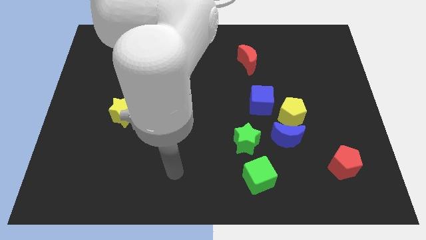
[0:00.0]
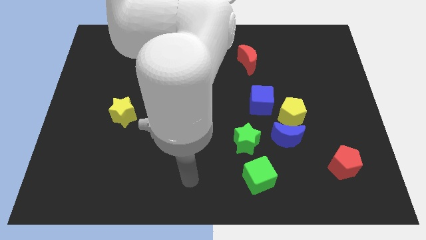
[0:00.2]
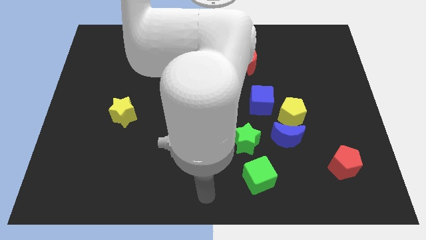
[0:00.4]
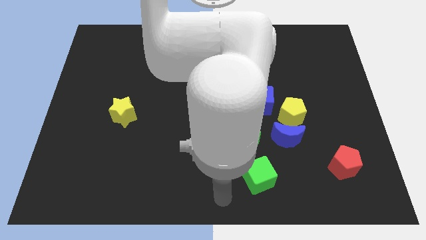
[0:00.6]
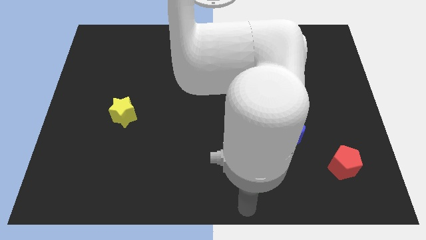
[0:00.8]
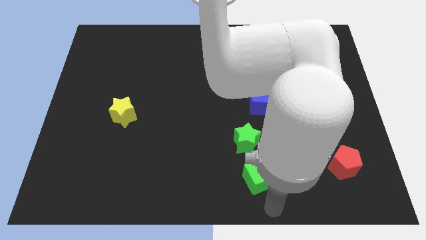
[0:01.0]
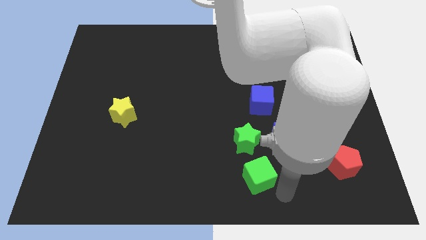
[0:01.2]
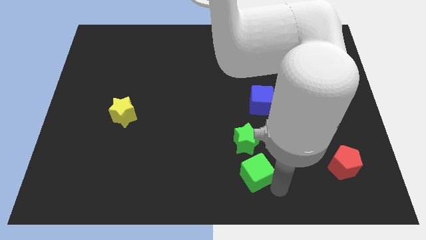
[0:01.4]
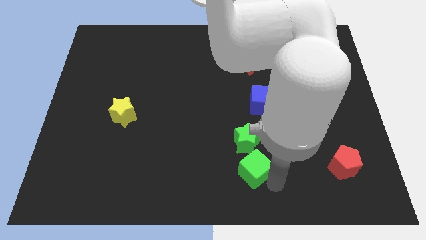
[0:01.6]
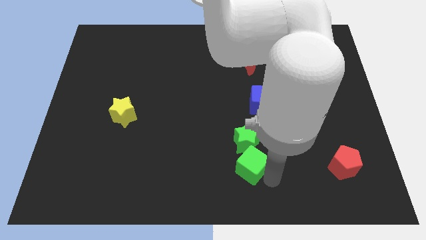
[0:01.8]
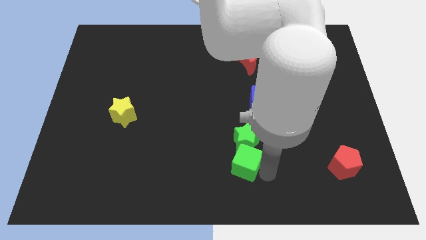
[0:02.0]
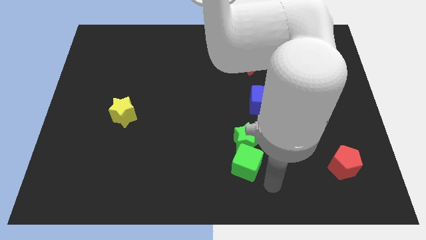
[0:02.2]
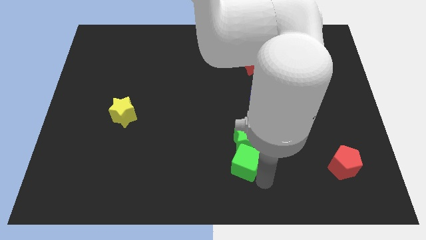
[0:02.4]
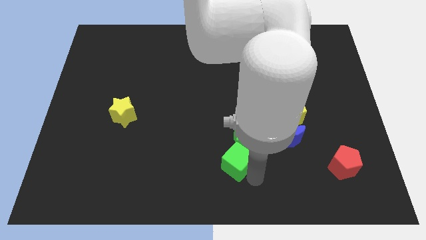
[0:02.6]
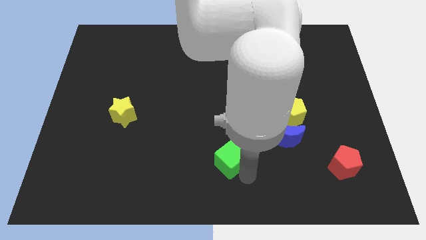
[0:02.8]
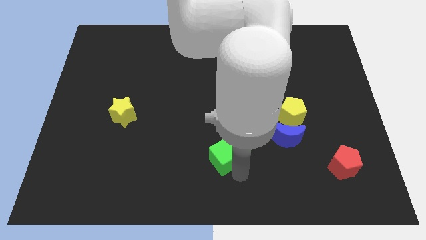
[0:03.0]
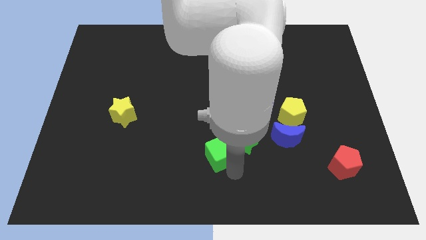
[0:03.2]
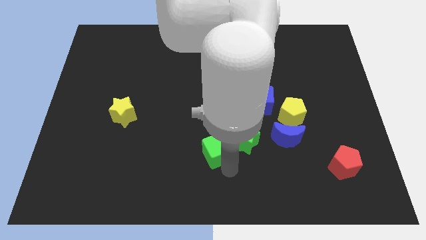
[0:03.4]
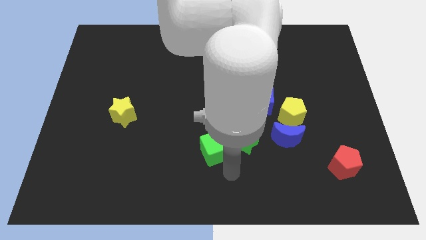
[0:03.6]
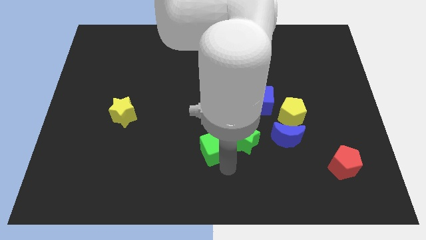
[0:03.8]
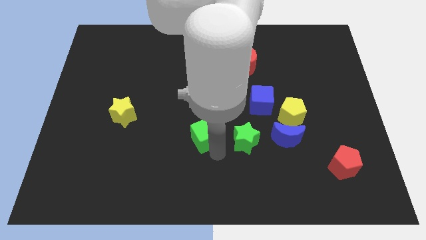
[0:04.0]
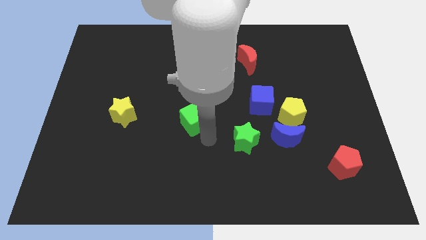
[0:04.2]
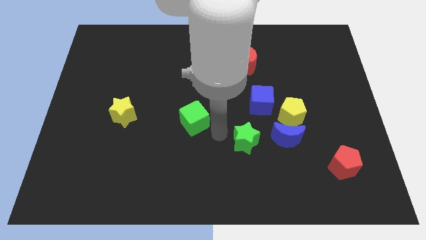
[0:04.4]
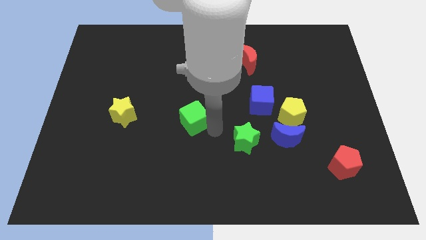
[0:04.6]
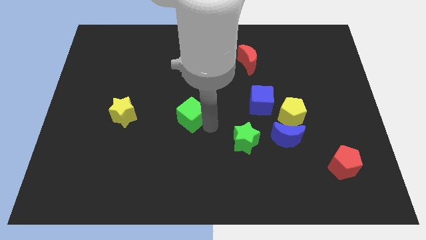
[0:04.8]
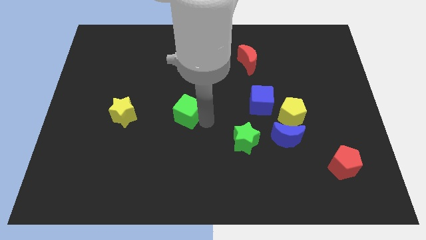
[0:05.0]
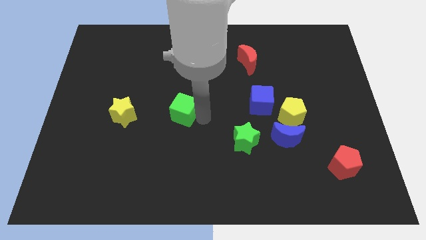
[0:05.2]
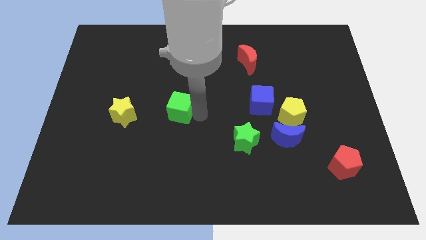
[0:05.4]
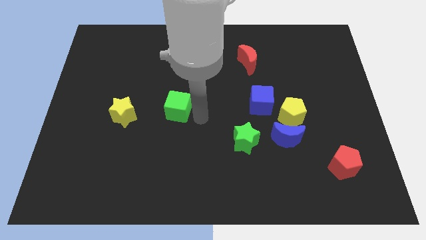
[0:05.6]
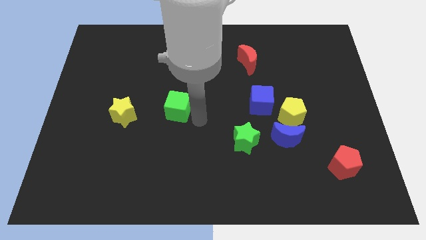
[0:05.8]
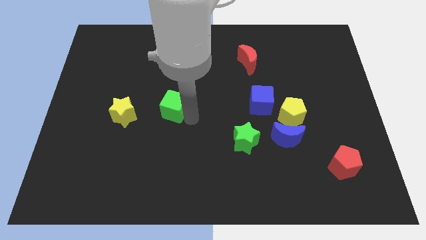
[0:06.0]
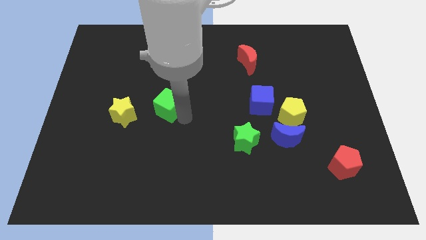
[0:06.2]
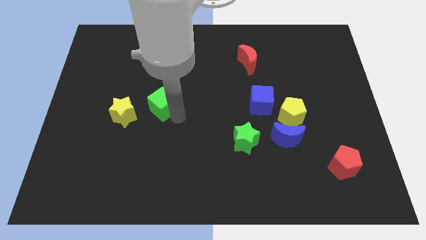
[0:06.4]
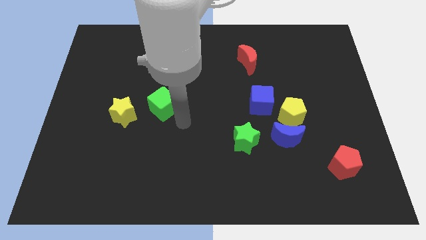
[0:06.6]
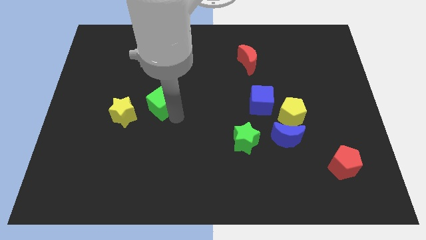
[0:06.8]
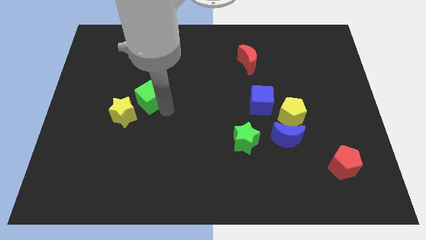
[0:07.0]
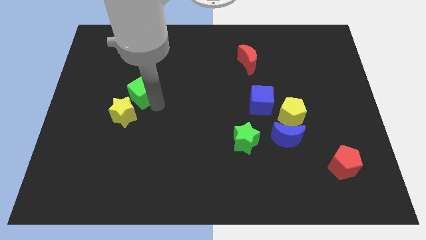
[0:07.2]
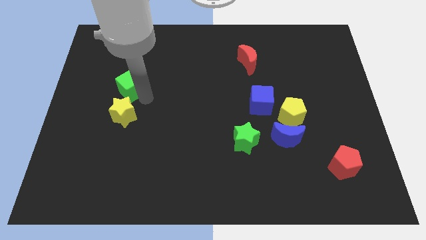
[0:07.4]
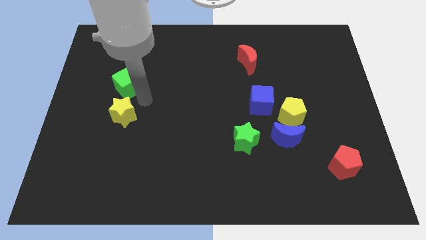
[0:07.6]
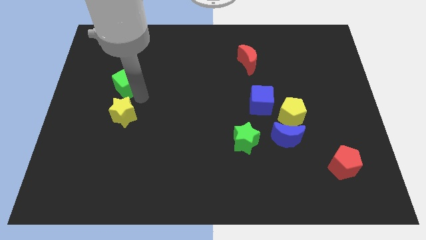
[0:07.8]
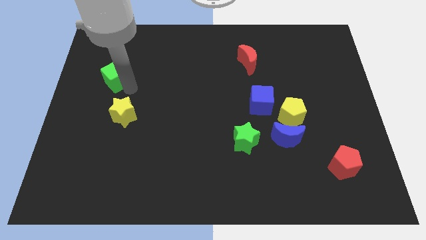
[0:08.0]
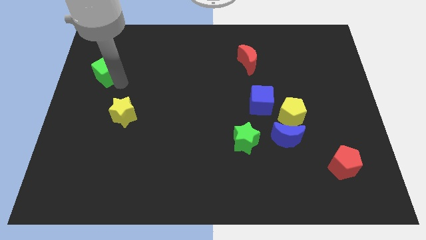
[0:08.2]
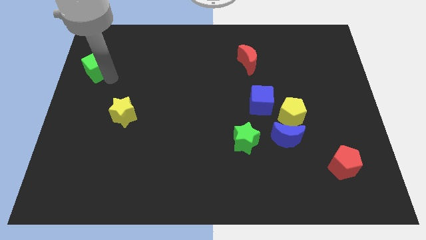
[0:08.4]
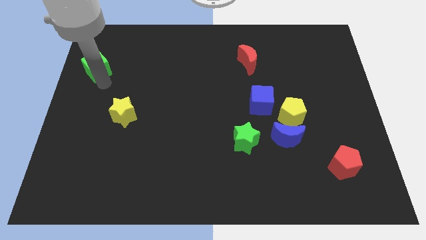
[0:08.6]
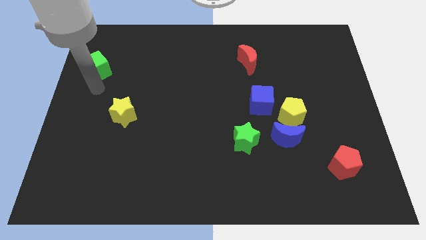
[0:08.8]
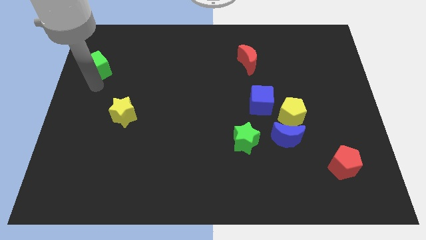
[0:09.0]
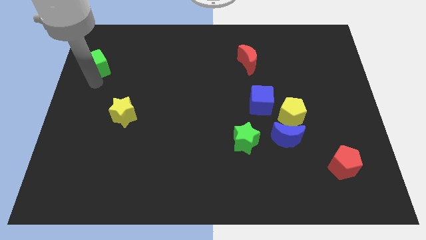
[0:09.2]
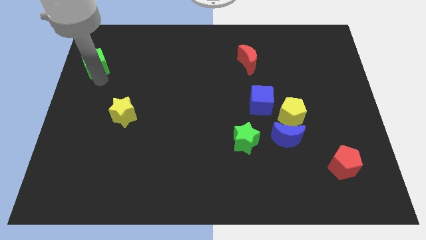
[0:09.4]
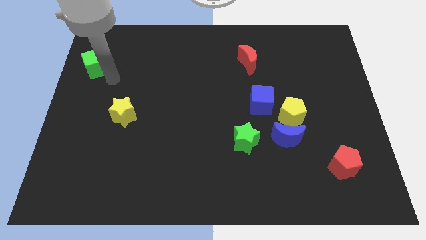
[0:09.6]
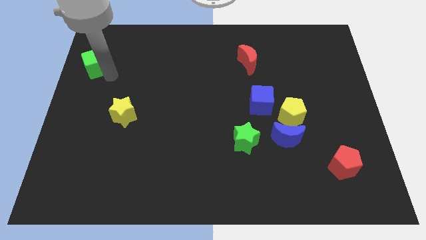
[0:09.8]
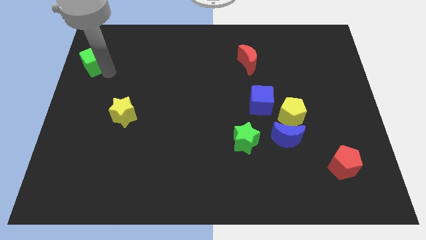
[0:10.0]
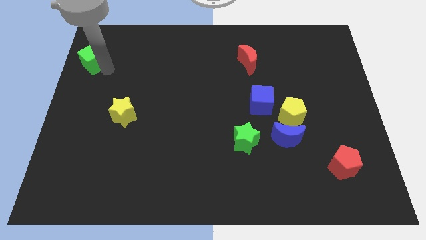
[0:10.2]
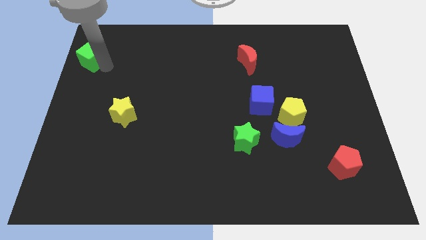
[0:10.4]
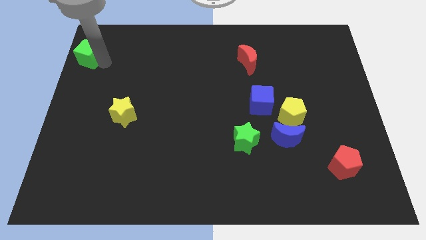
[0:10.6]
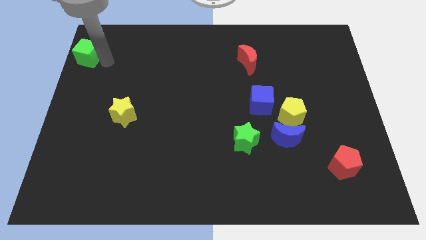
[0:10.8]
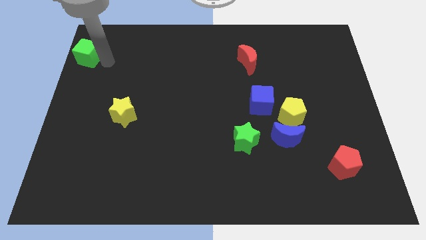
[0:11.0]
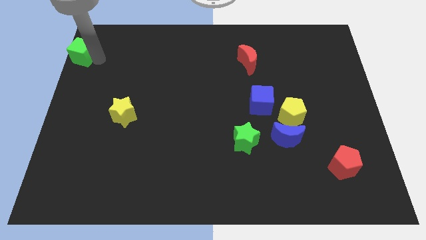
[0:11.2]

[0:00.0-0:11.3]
push the green cube to the top left of the board

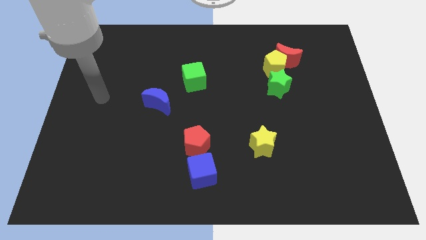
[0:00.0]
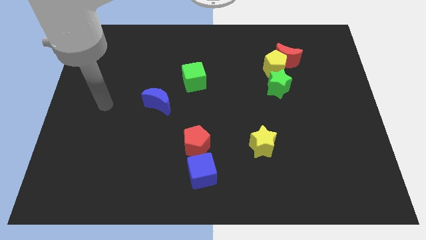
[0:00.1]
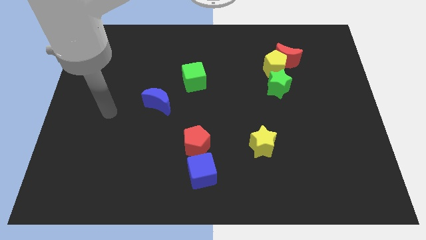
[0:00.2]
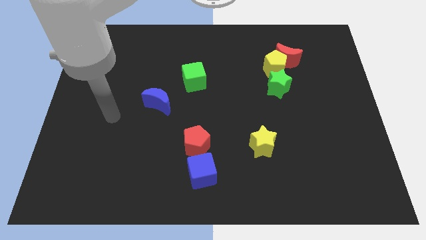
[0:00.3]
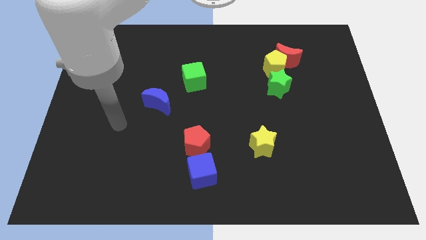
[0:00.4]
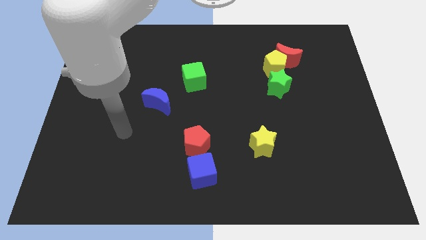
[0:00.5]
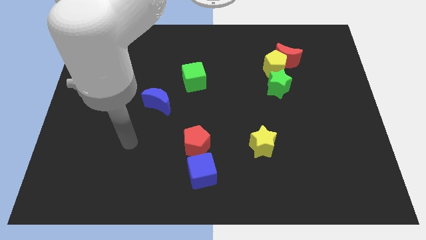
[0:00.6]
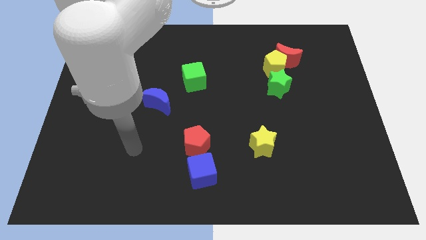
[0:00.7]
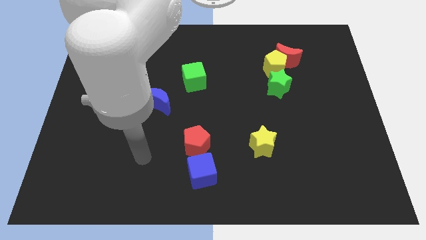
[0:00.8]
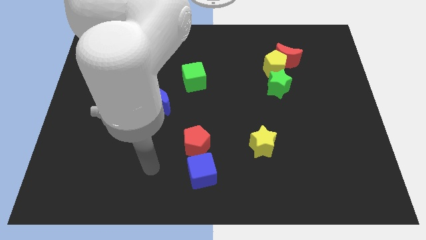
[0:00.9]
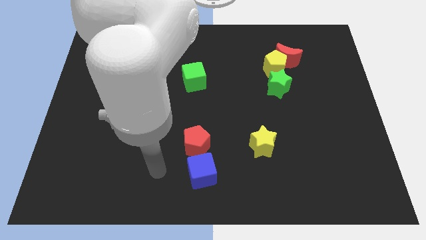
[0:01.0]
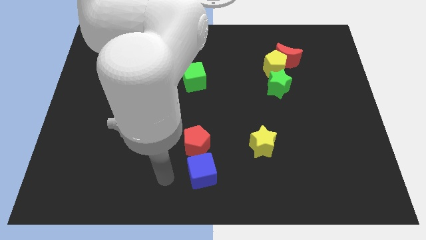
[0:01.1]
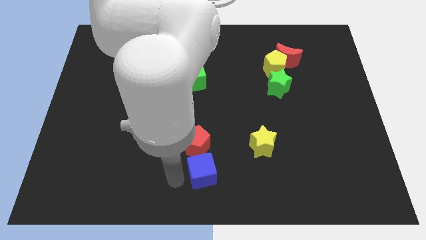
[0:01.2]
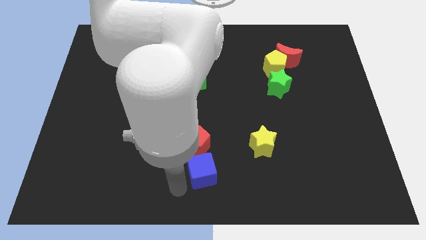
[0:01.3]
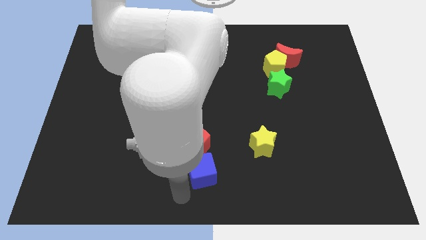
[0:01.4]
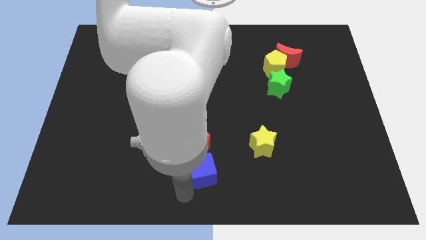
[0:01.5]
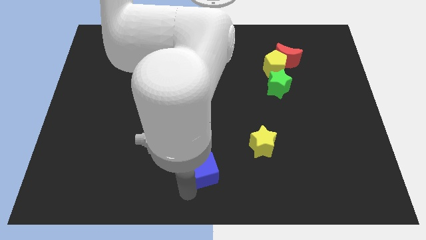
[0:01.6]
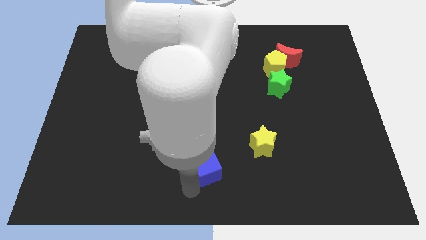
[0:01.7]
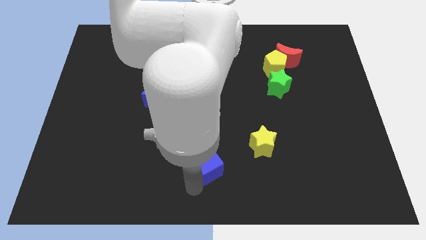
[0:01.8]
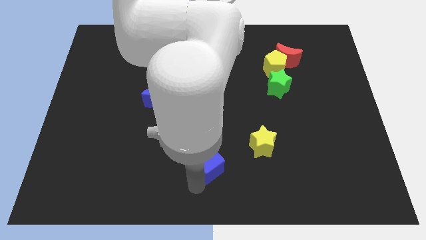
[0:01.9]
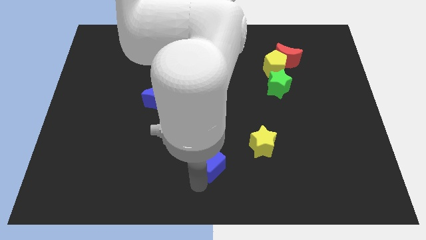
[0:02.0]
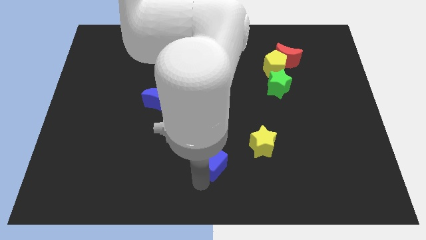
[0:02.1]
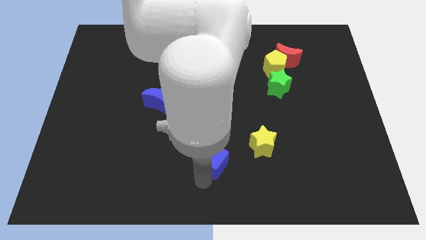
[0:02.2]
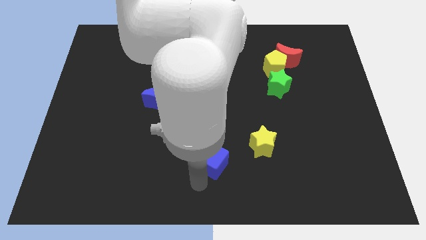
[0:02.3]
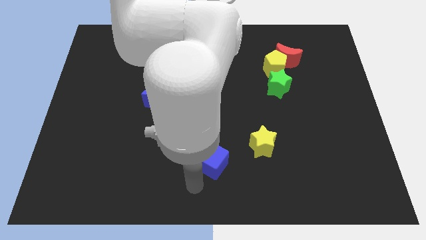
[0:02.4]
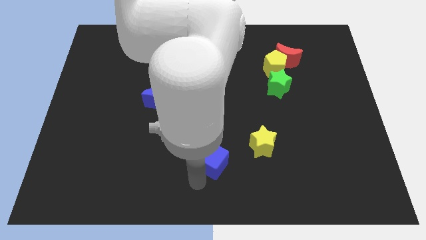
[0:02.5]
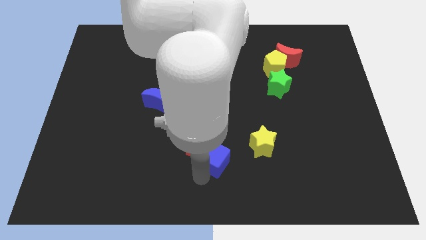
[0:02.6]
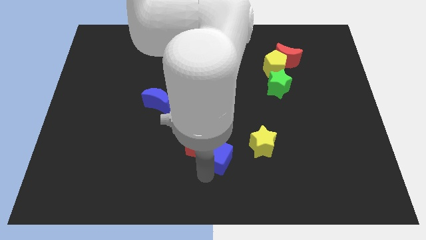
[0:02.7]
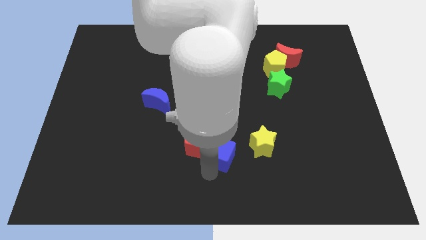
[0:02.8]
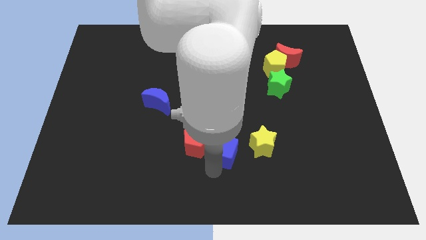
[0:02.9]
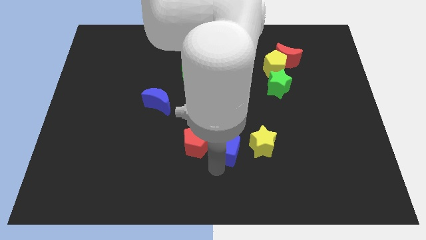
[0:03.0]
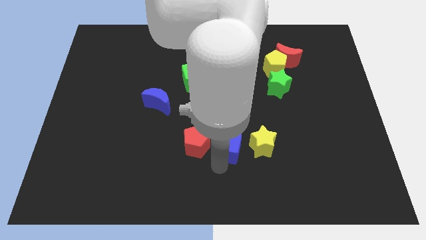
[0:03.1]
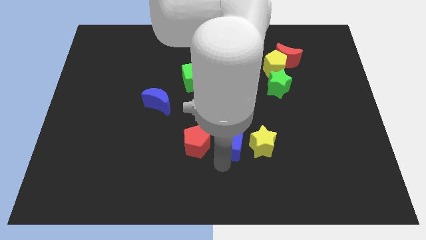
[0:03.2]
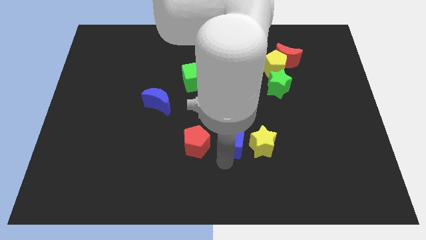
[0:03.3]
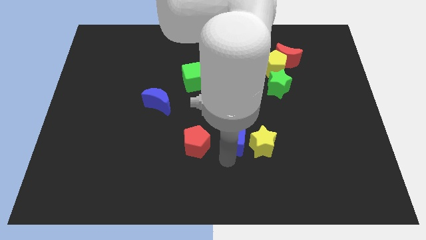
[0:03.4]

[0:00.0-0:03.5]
push the blue cube to the center of the board
